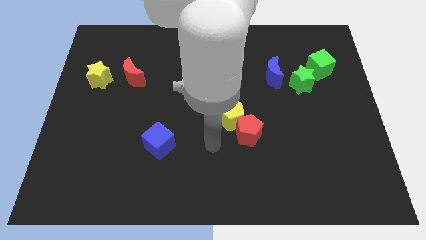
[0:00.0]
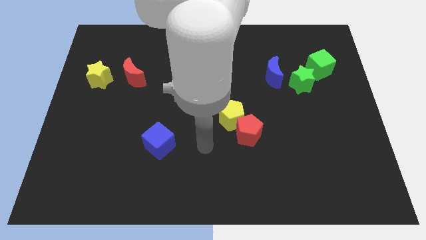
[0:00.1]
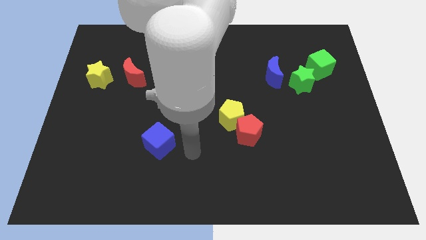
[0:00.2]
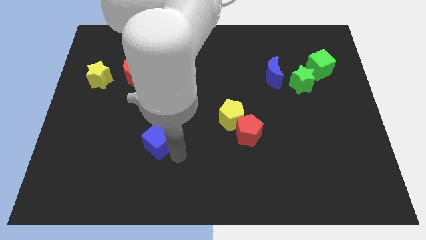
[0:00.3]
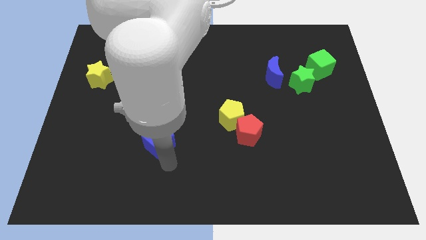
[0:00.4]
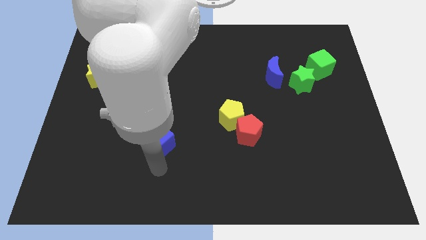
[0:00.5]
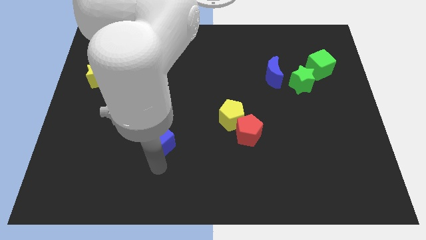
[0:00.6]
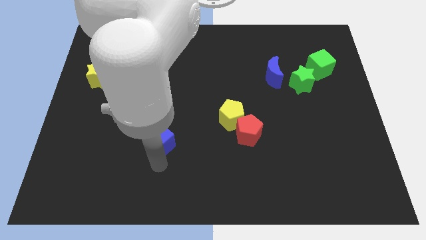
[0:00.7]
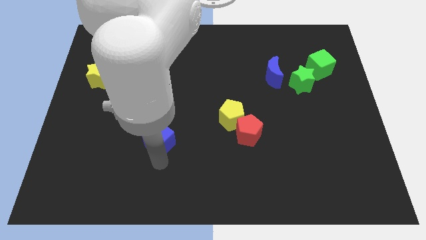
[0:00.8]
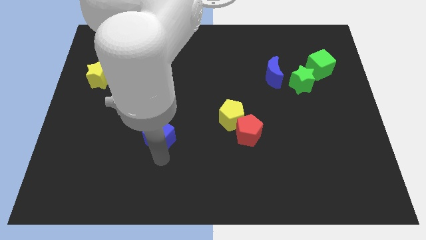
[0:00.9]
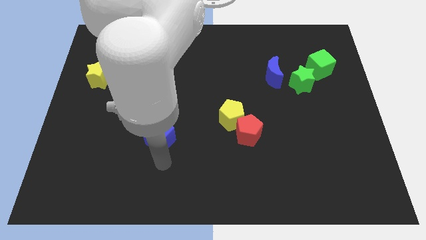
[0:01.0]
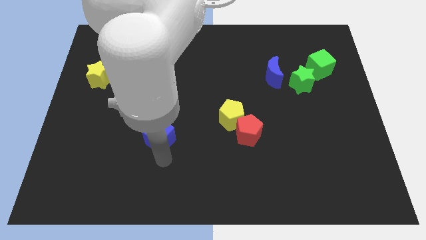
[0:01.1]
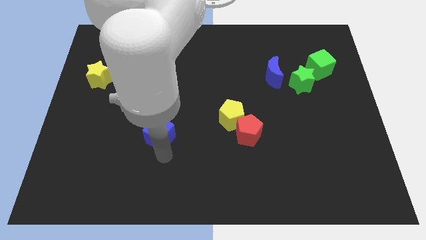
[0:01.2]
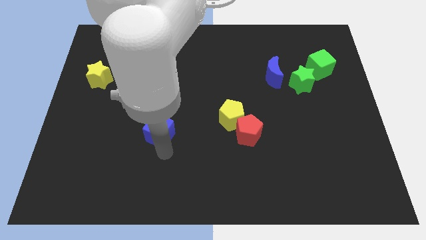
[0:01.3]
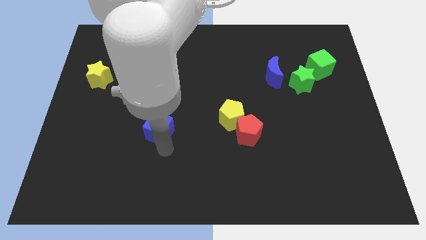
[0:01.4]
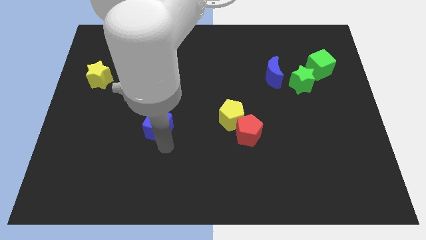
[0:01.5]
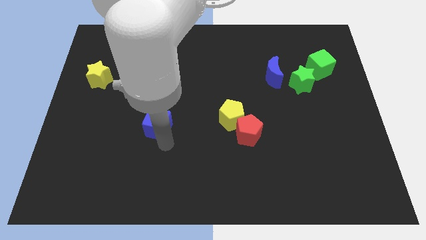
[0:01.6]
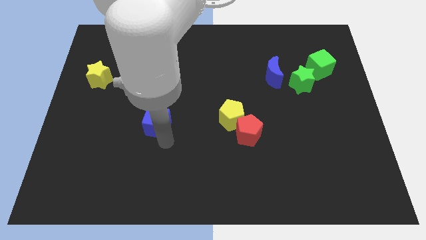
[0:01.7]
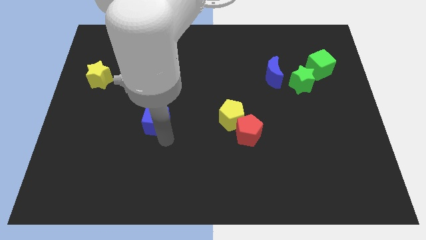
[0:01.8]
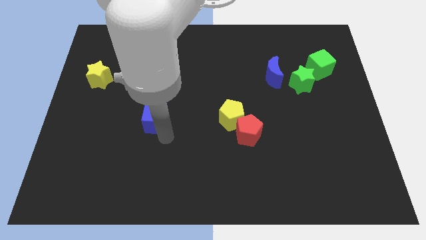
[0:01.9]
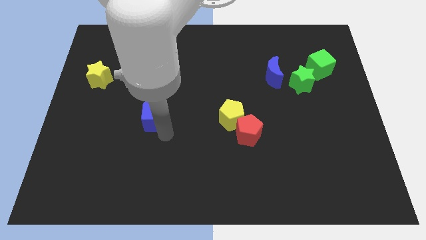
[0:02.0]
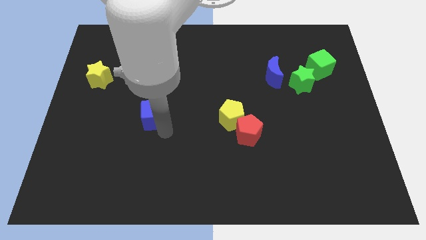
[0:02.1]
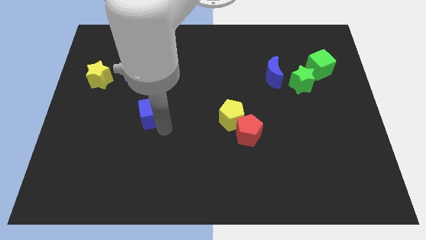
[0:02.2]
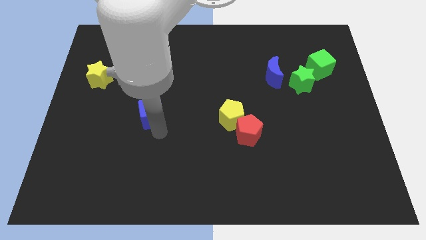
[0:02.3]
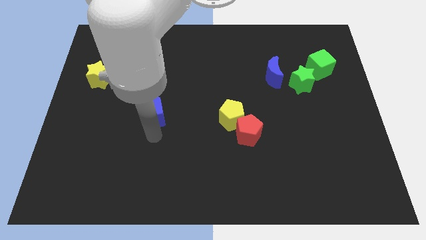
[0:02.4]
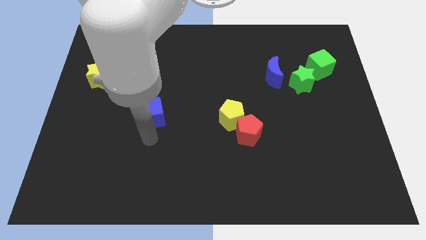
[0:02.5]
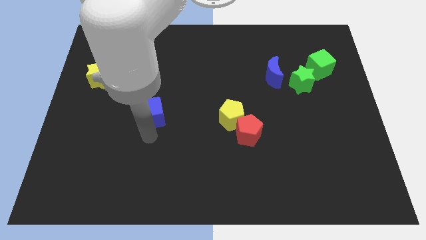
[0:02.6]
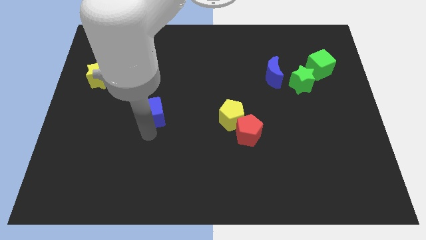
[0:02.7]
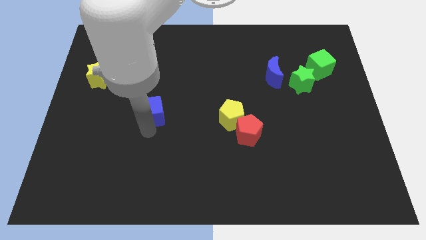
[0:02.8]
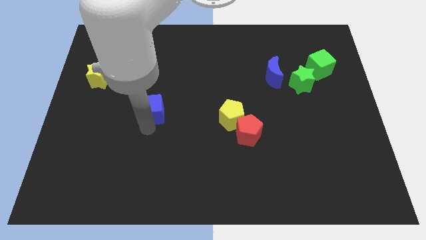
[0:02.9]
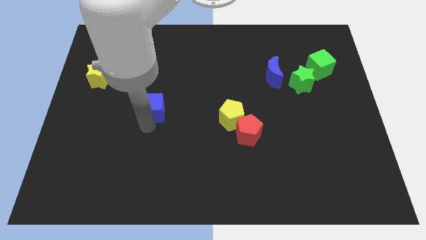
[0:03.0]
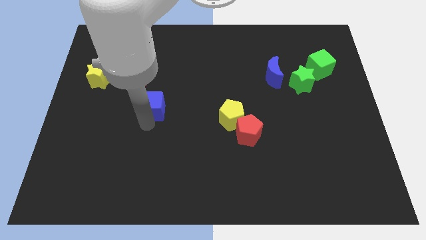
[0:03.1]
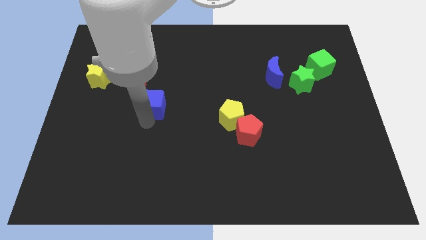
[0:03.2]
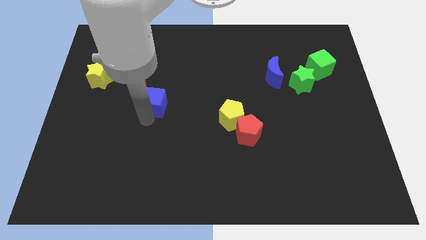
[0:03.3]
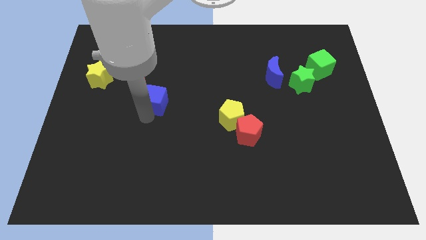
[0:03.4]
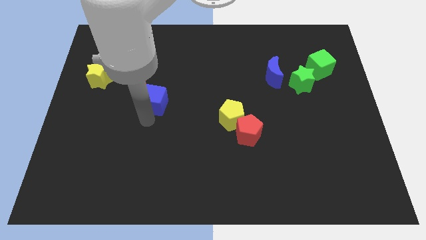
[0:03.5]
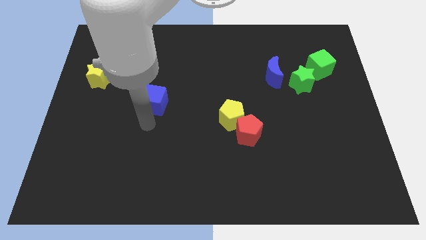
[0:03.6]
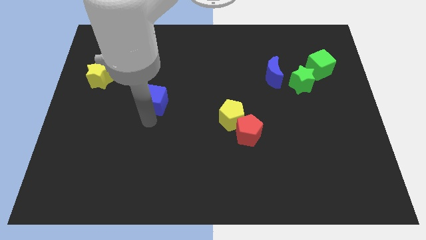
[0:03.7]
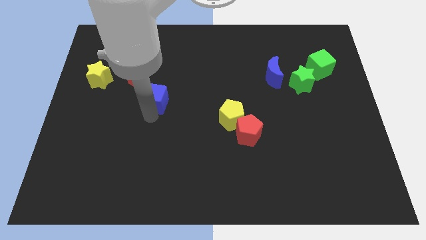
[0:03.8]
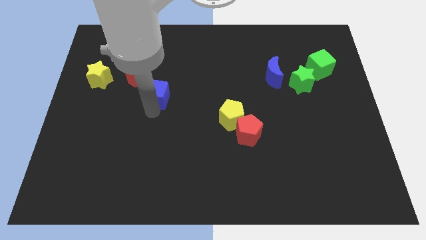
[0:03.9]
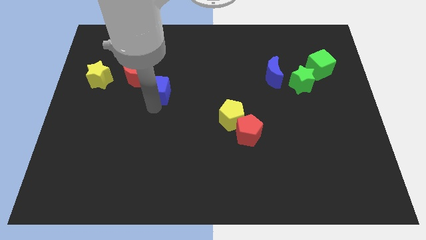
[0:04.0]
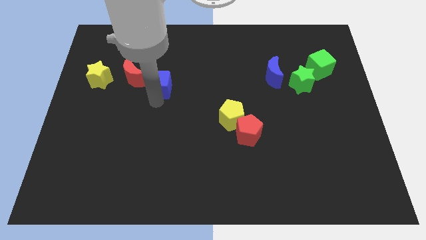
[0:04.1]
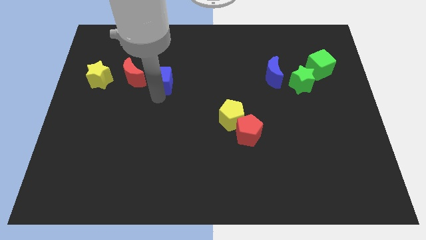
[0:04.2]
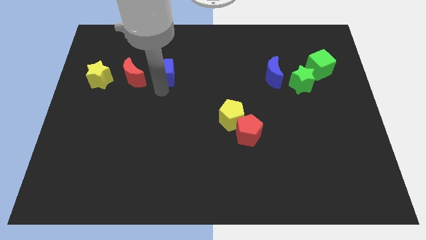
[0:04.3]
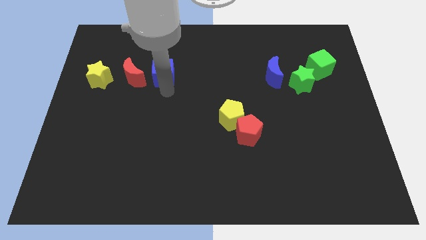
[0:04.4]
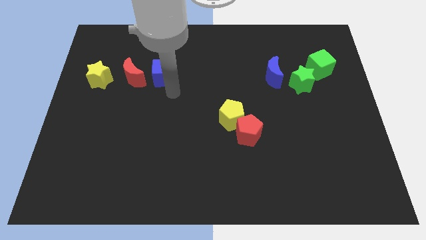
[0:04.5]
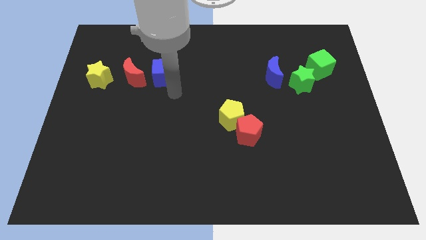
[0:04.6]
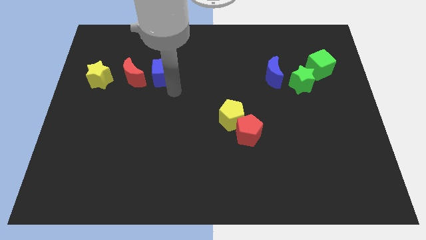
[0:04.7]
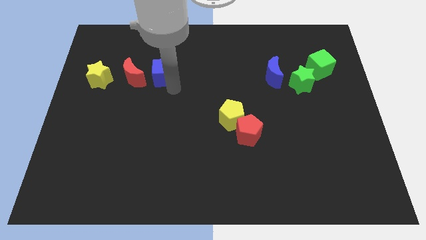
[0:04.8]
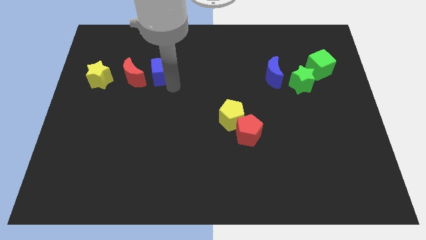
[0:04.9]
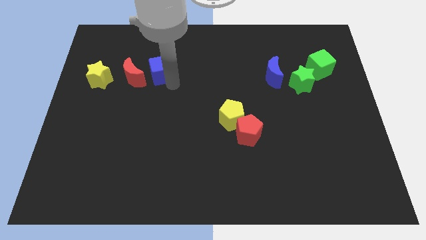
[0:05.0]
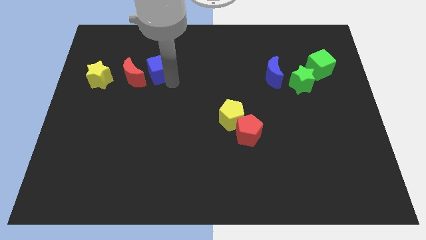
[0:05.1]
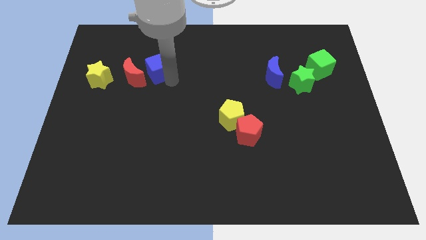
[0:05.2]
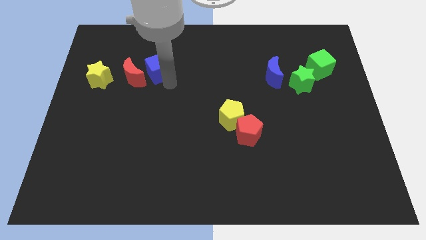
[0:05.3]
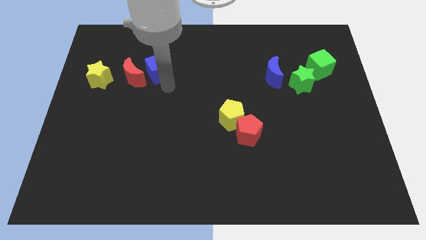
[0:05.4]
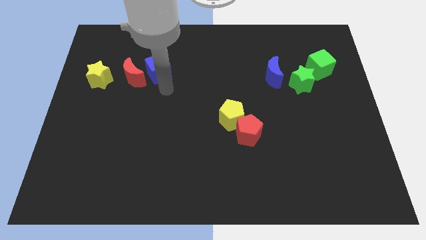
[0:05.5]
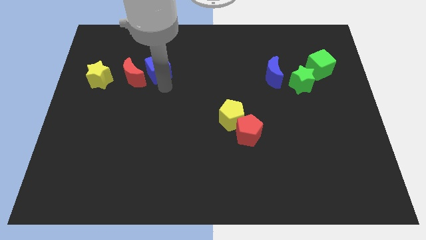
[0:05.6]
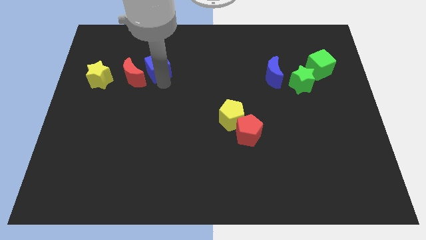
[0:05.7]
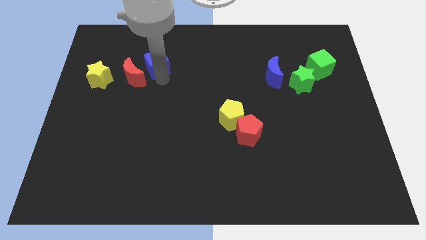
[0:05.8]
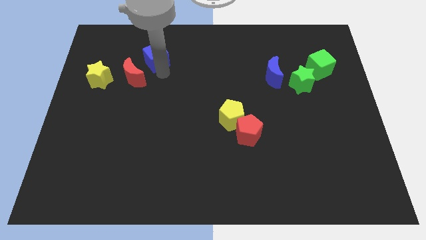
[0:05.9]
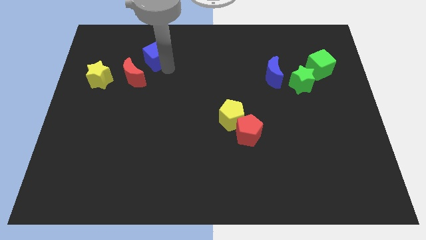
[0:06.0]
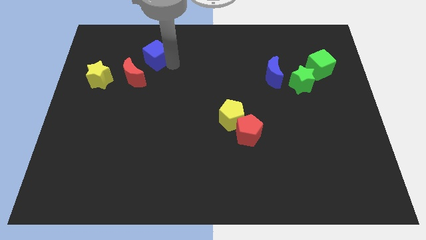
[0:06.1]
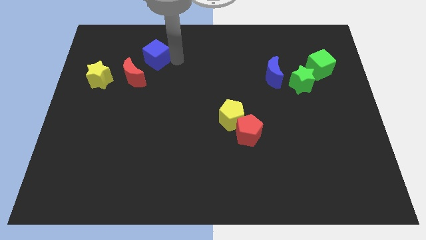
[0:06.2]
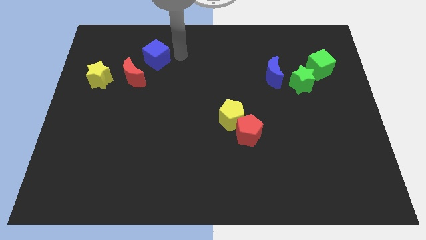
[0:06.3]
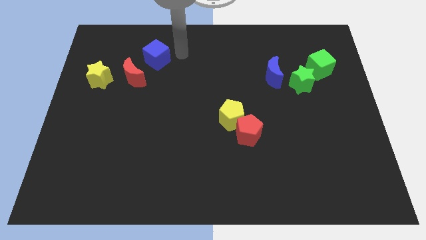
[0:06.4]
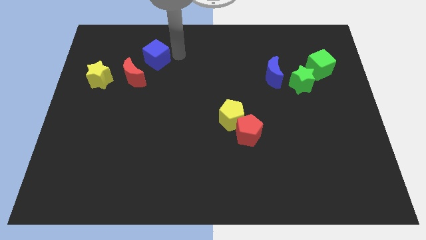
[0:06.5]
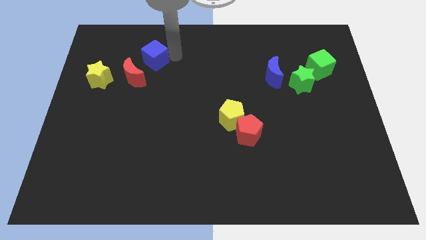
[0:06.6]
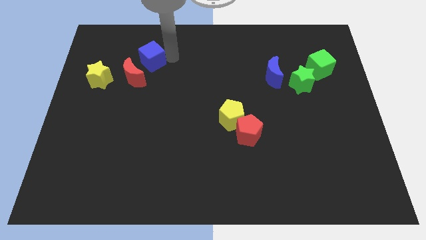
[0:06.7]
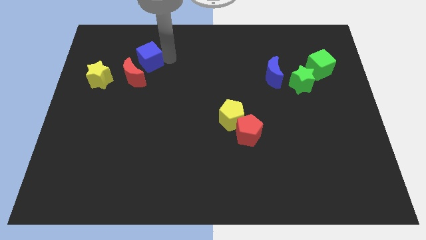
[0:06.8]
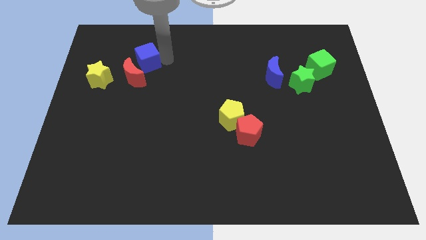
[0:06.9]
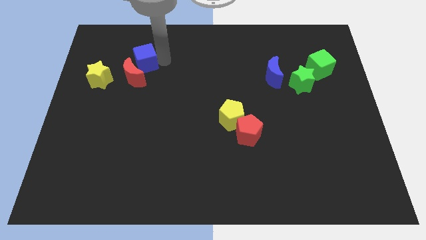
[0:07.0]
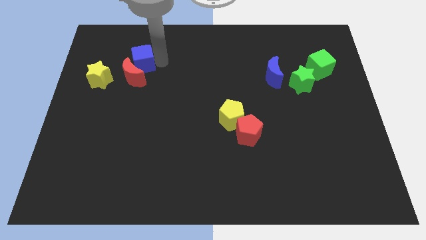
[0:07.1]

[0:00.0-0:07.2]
push the blue cube to the top right of the yellow star

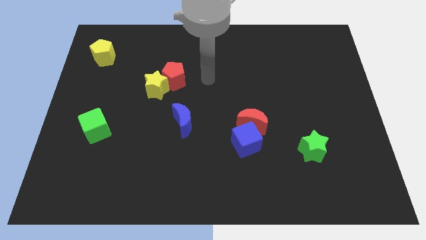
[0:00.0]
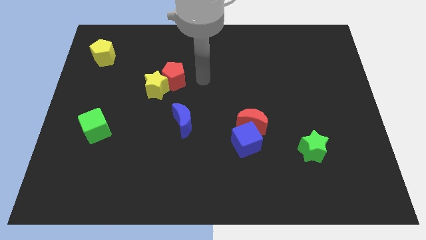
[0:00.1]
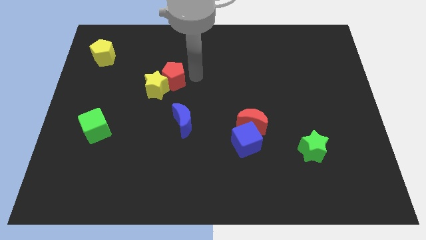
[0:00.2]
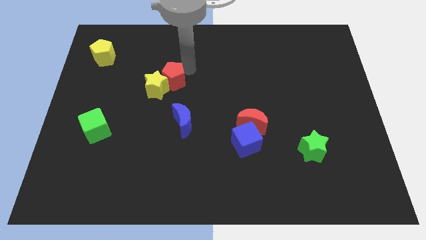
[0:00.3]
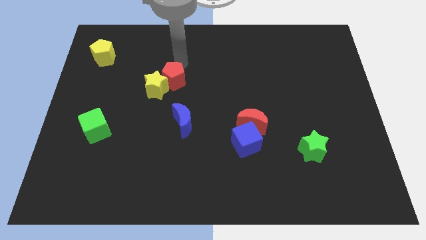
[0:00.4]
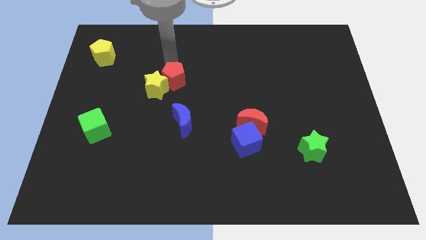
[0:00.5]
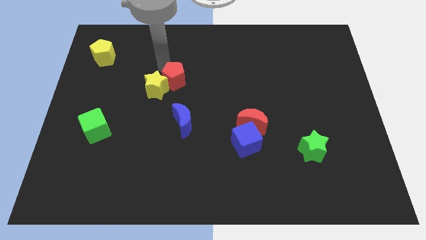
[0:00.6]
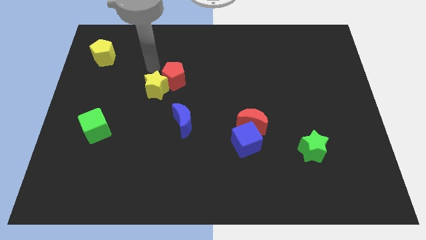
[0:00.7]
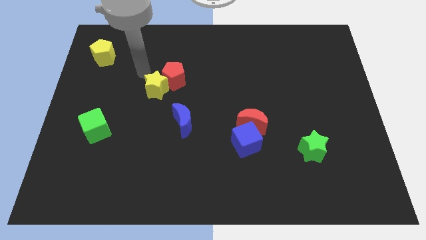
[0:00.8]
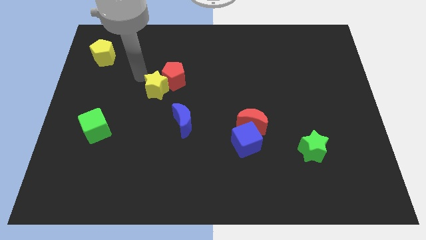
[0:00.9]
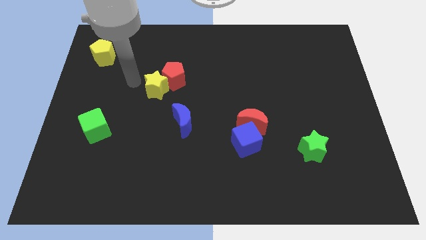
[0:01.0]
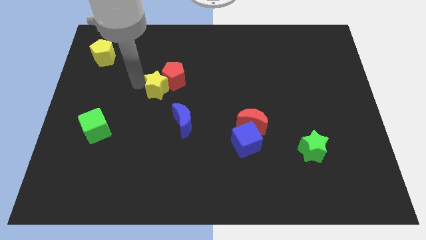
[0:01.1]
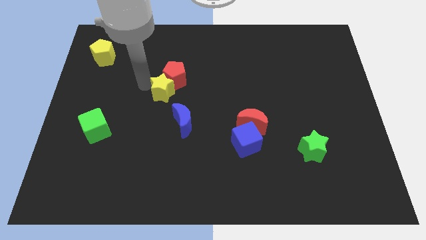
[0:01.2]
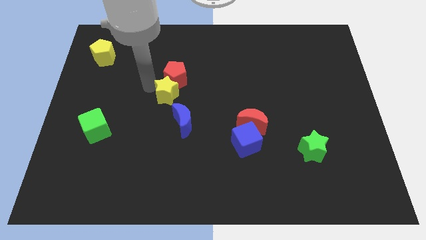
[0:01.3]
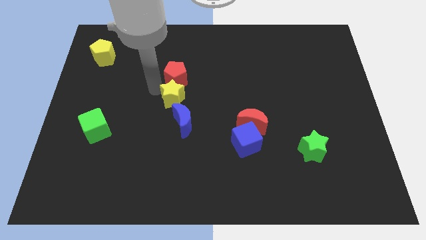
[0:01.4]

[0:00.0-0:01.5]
move the yellow star to the bottom right side of the red pentagon
